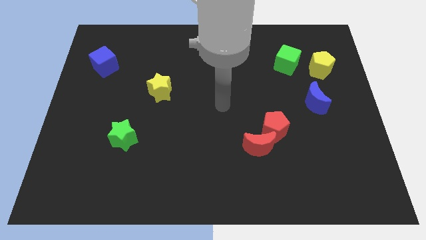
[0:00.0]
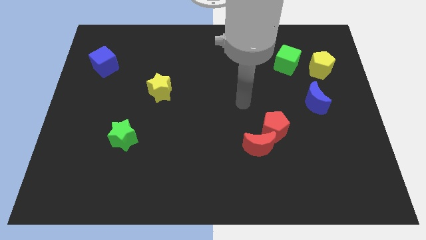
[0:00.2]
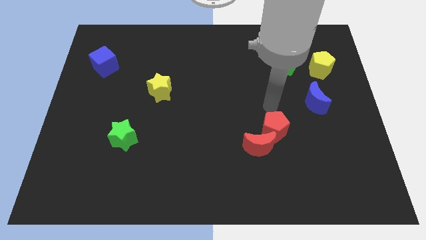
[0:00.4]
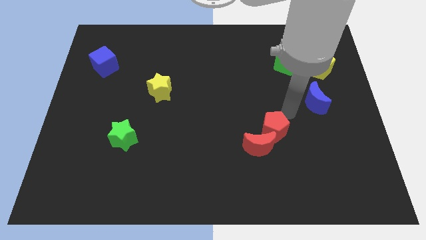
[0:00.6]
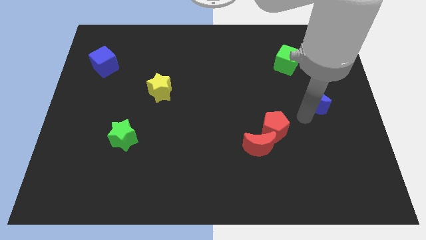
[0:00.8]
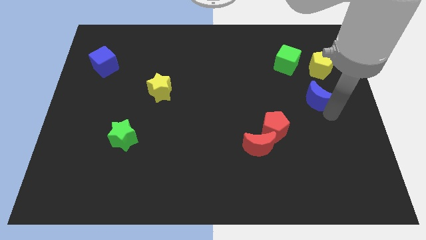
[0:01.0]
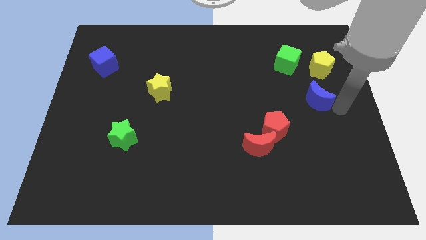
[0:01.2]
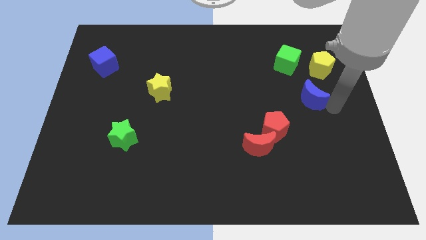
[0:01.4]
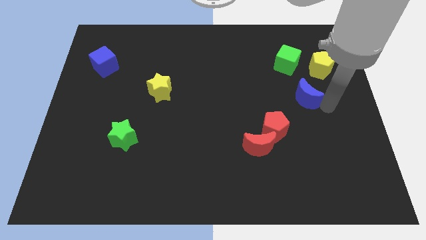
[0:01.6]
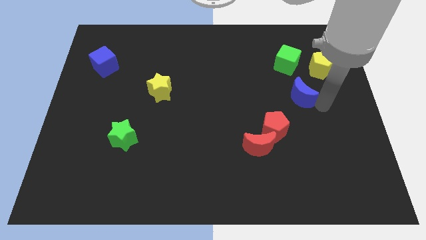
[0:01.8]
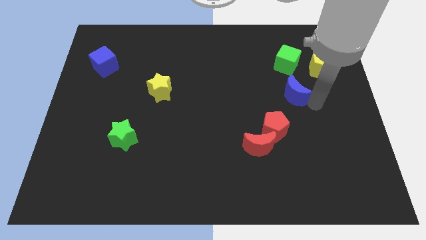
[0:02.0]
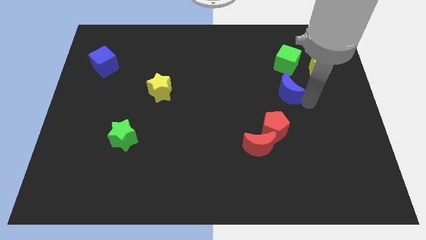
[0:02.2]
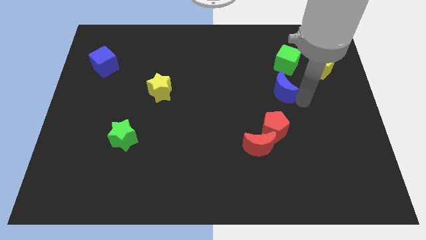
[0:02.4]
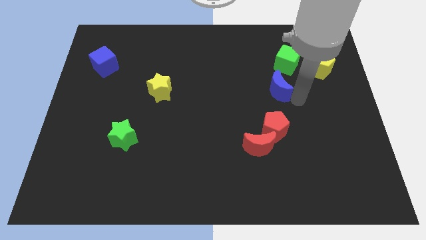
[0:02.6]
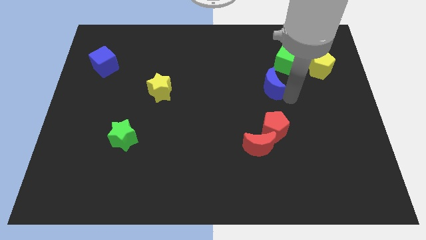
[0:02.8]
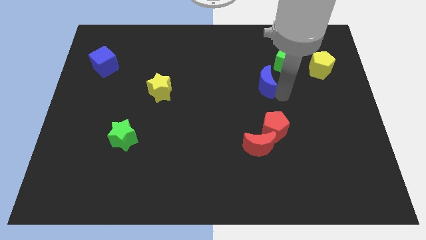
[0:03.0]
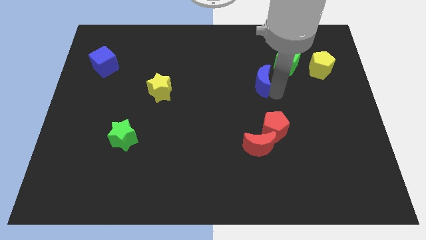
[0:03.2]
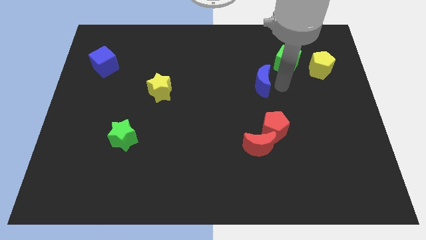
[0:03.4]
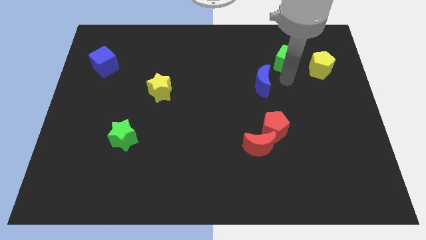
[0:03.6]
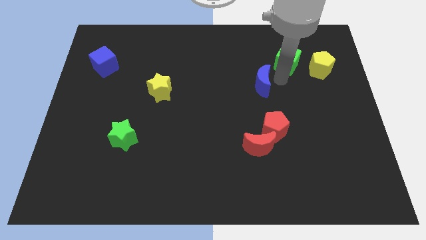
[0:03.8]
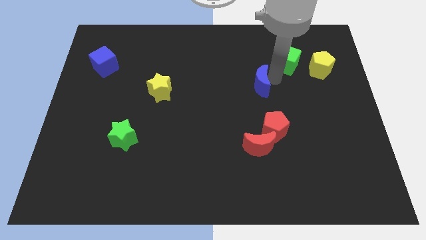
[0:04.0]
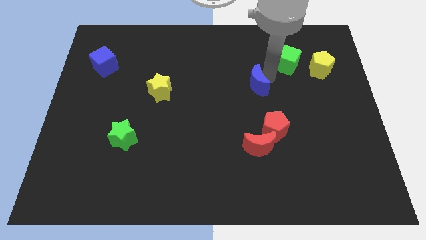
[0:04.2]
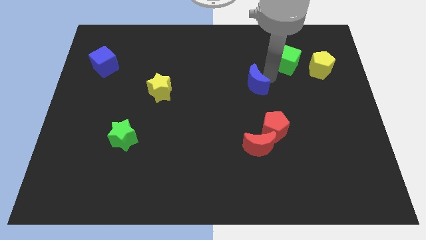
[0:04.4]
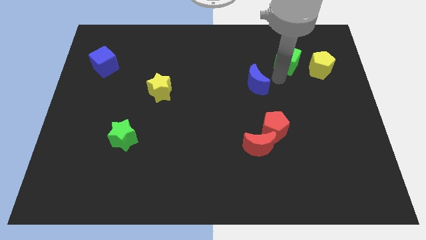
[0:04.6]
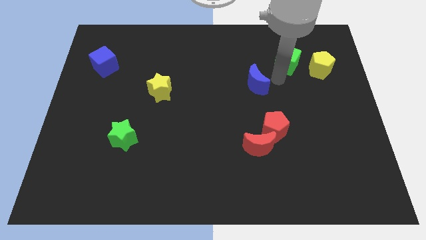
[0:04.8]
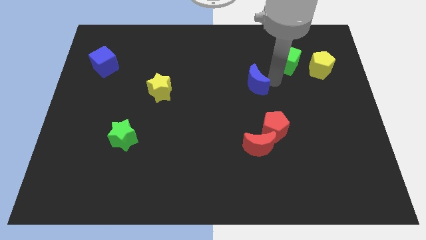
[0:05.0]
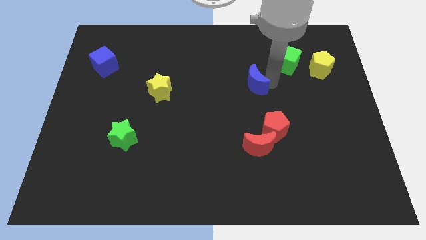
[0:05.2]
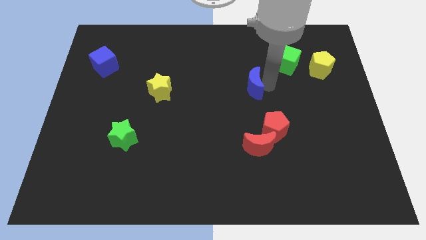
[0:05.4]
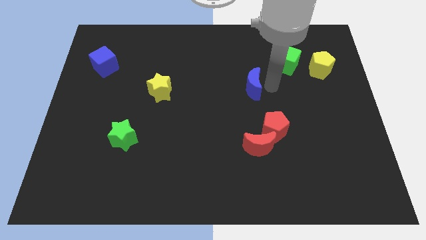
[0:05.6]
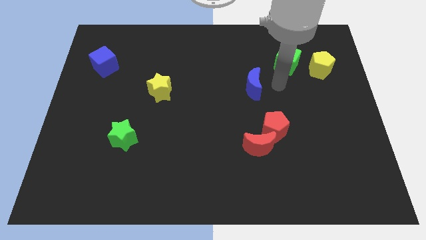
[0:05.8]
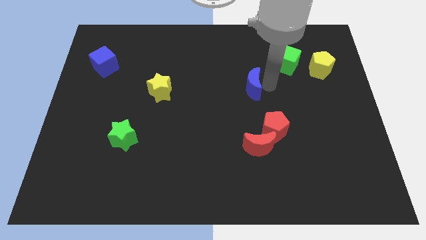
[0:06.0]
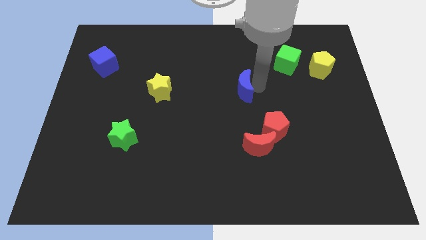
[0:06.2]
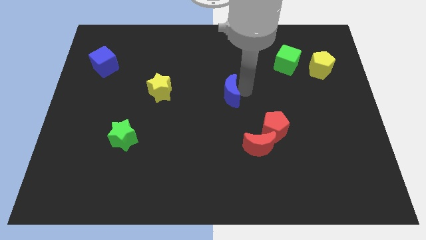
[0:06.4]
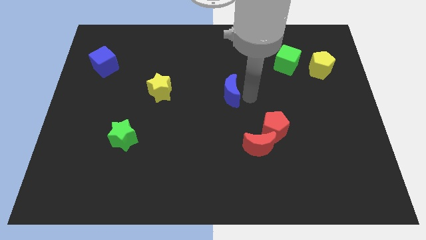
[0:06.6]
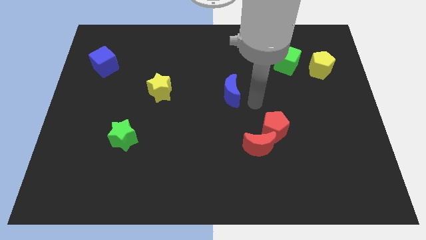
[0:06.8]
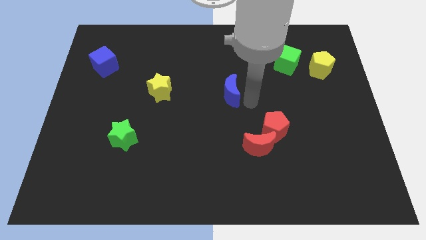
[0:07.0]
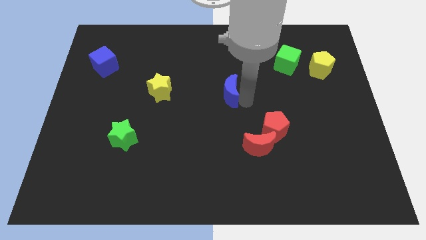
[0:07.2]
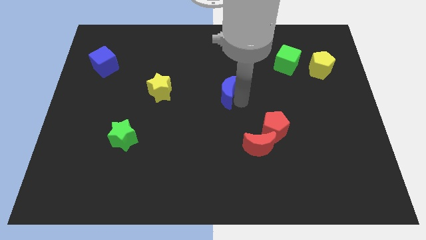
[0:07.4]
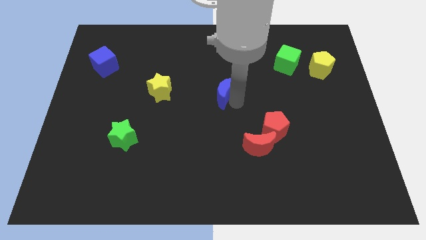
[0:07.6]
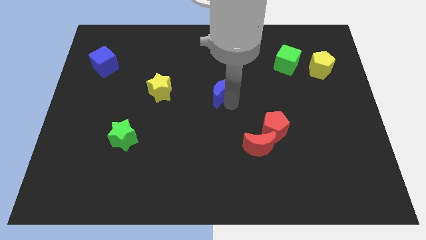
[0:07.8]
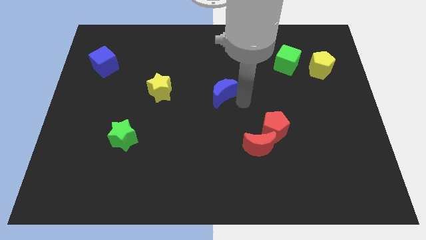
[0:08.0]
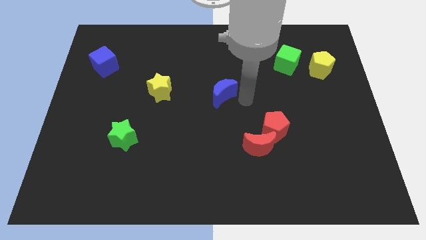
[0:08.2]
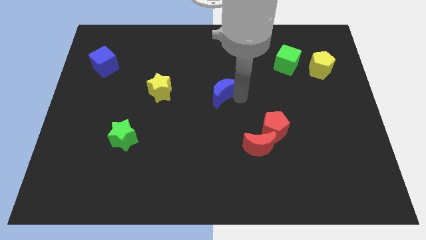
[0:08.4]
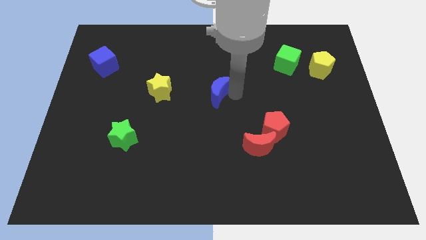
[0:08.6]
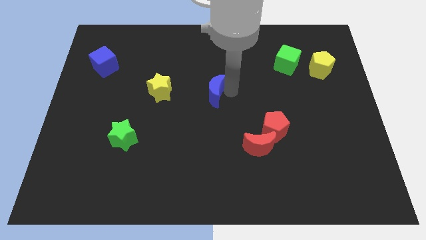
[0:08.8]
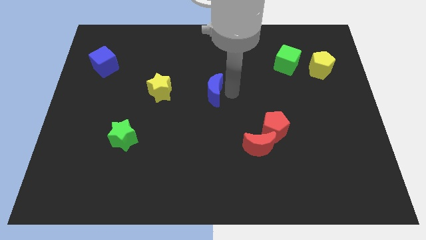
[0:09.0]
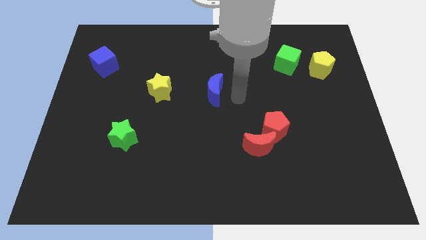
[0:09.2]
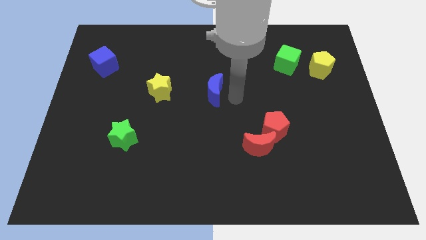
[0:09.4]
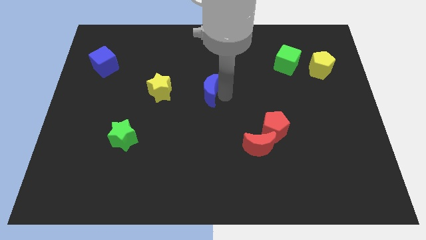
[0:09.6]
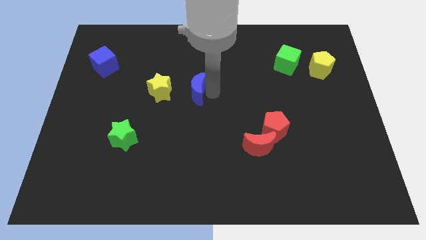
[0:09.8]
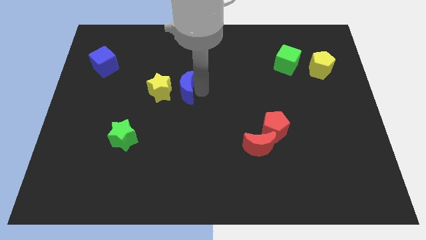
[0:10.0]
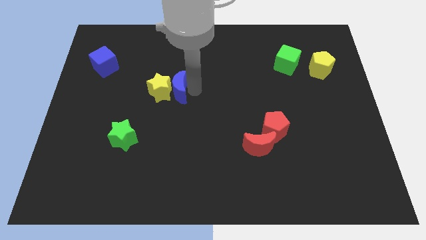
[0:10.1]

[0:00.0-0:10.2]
put the blue moon to the yellow star

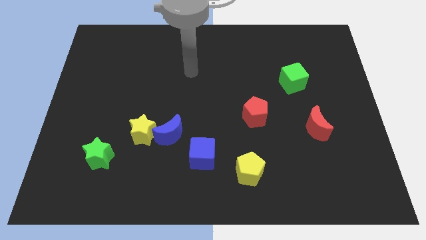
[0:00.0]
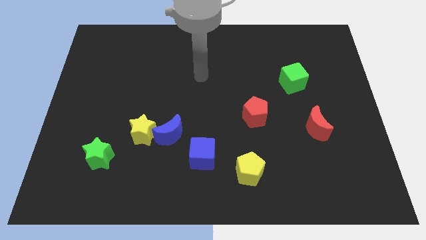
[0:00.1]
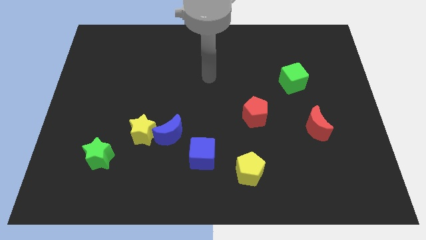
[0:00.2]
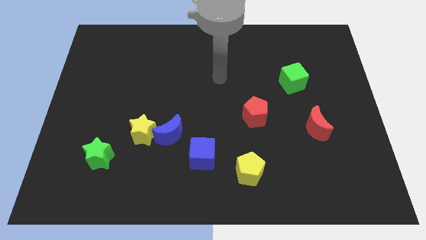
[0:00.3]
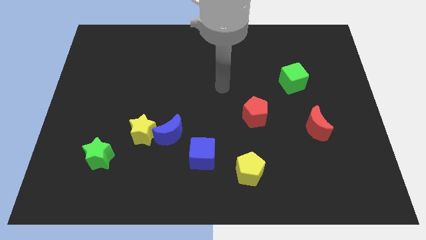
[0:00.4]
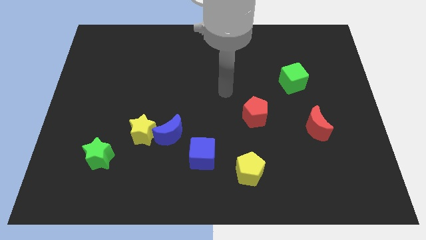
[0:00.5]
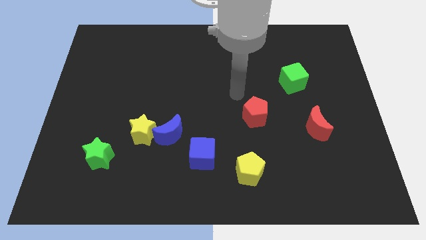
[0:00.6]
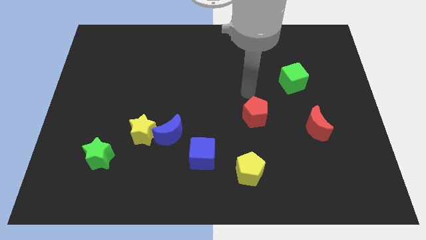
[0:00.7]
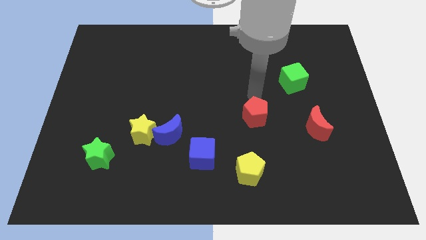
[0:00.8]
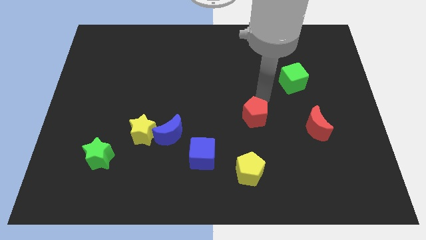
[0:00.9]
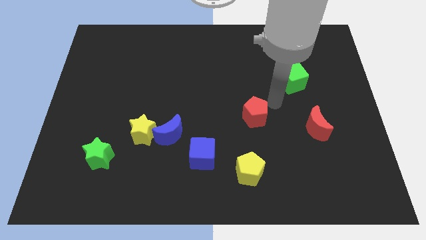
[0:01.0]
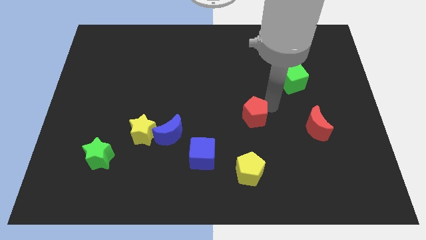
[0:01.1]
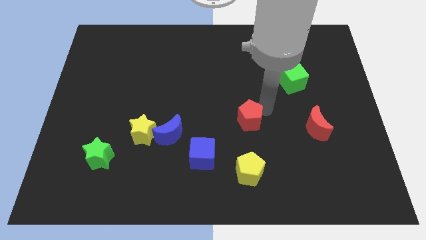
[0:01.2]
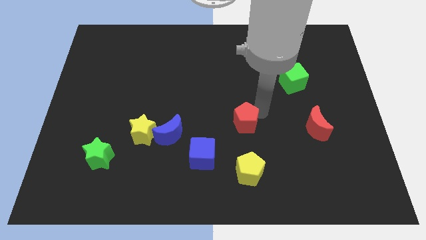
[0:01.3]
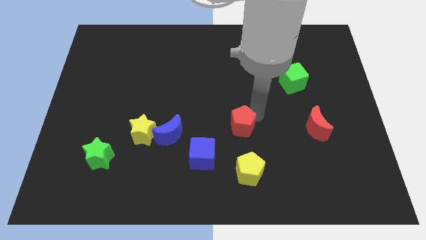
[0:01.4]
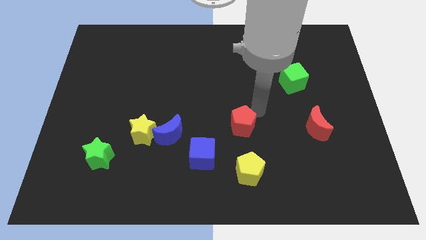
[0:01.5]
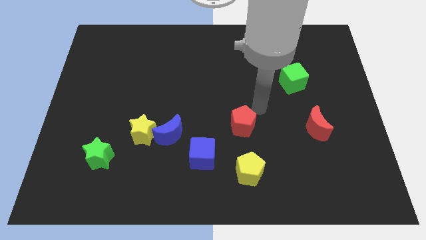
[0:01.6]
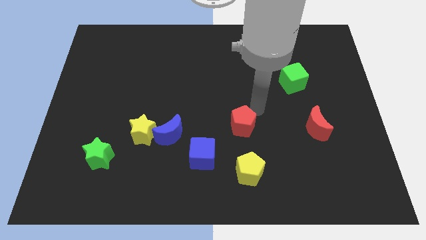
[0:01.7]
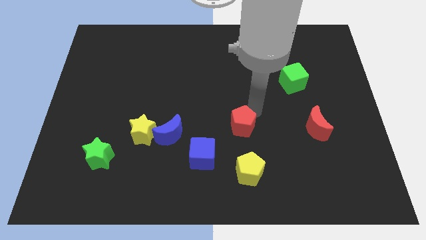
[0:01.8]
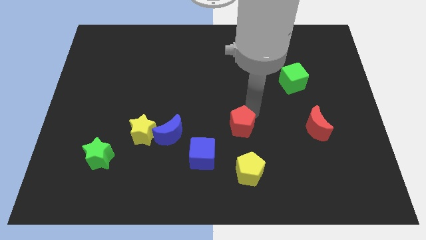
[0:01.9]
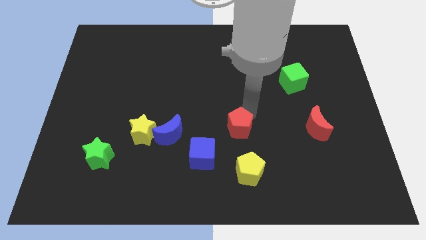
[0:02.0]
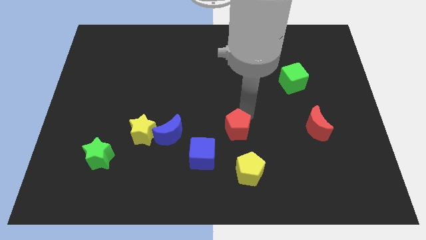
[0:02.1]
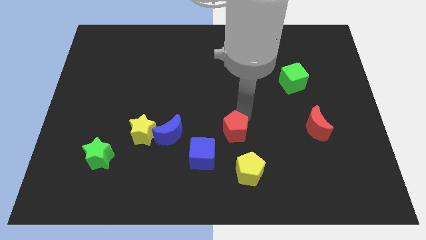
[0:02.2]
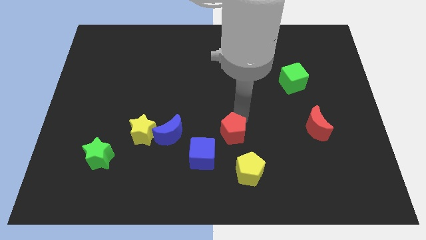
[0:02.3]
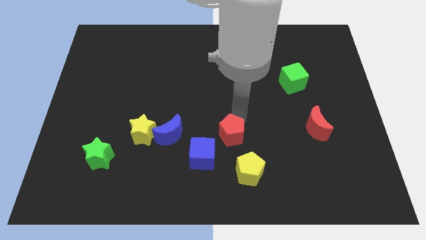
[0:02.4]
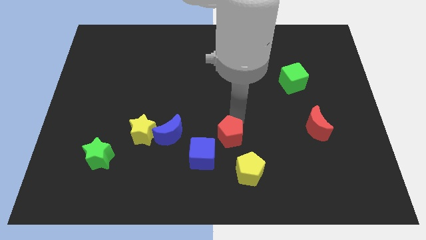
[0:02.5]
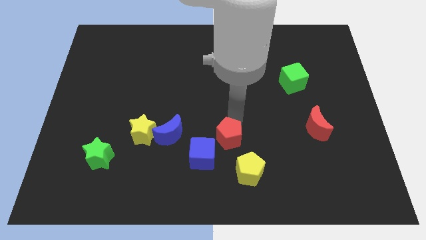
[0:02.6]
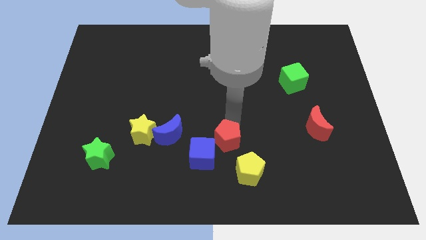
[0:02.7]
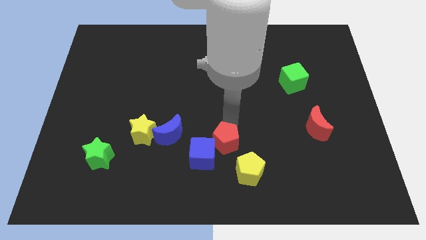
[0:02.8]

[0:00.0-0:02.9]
put the red pentagon to the blue cube
